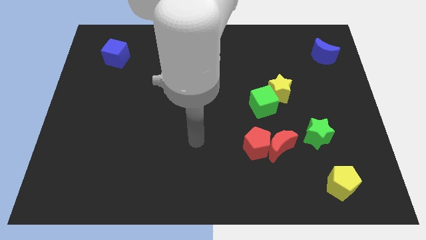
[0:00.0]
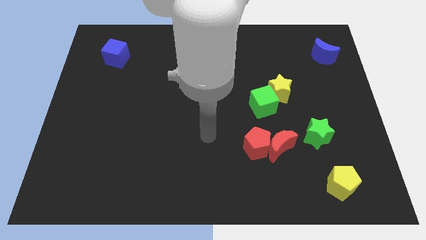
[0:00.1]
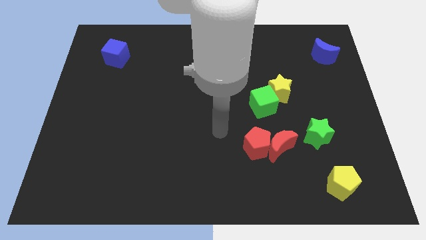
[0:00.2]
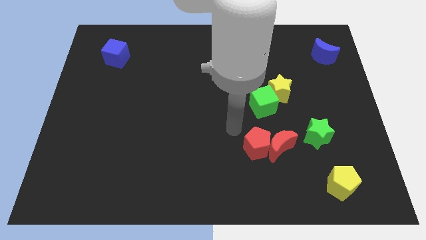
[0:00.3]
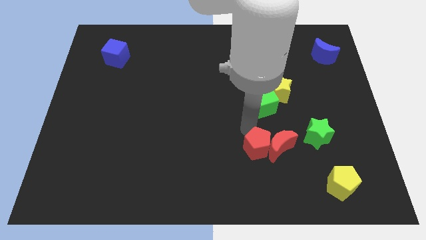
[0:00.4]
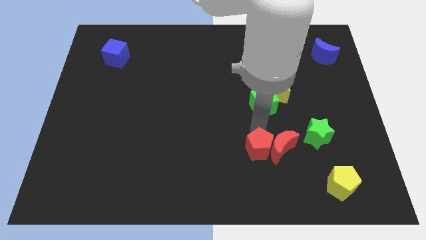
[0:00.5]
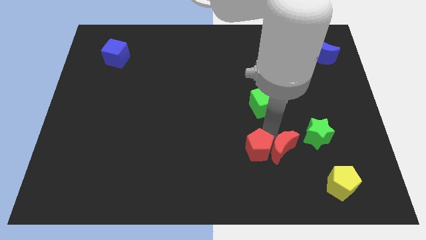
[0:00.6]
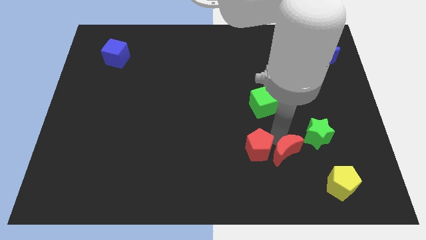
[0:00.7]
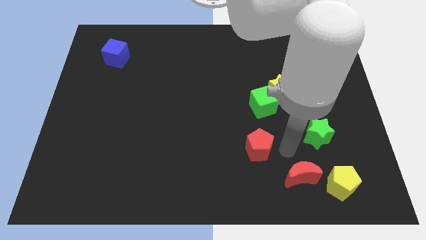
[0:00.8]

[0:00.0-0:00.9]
separate the red pentagon from the red moon

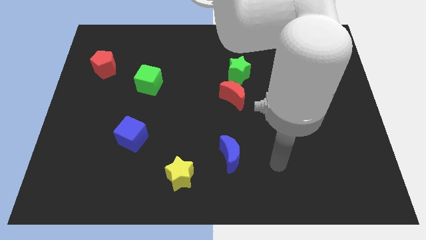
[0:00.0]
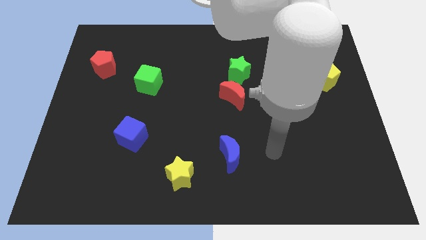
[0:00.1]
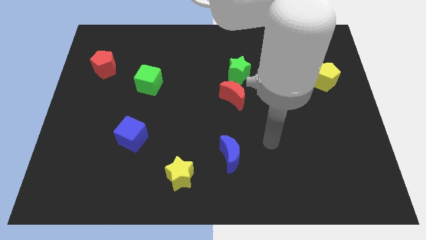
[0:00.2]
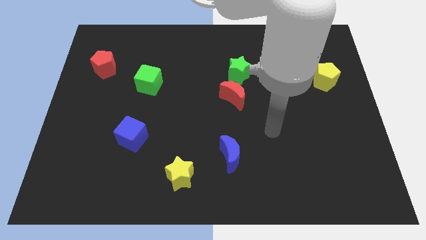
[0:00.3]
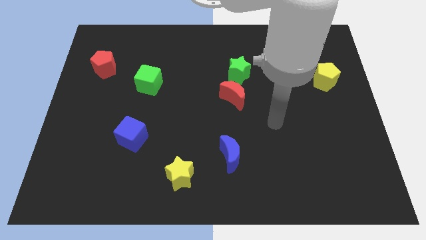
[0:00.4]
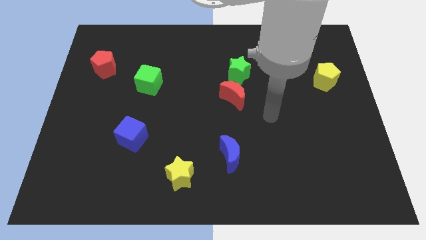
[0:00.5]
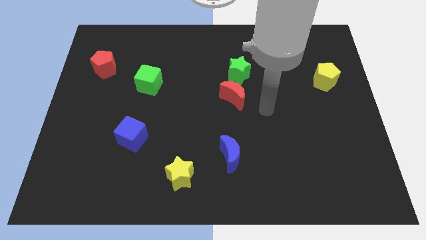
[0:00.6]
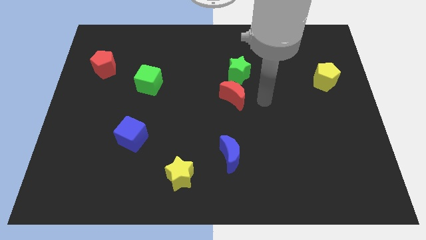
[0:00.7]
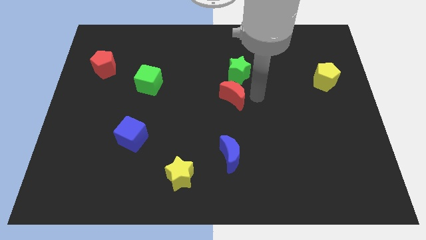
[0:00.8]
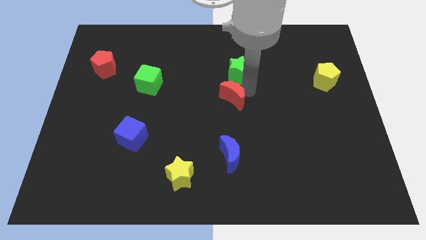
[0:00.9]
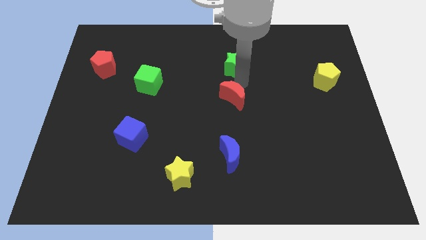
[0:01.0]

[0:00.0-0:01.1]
move the red moon away from the green star

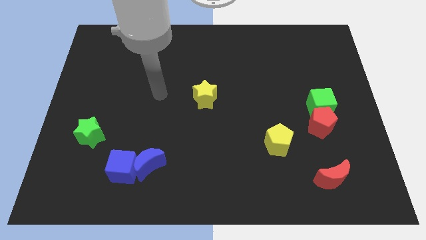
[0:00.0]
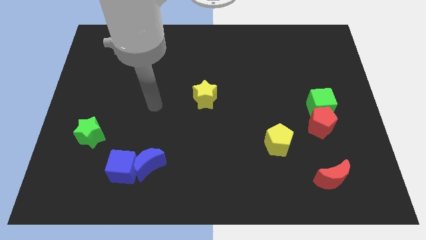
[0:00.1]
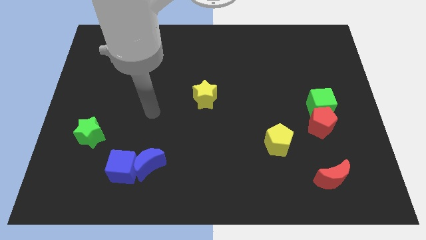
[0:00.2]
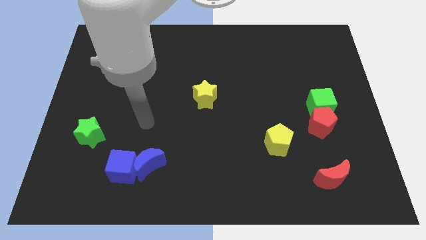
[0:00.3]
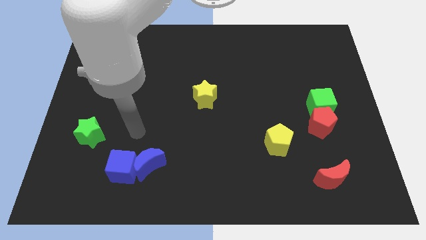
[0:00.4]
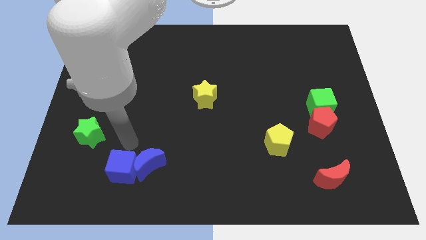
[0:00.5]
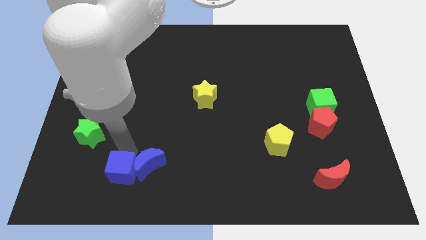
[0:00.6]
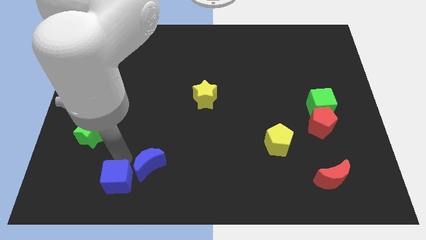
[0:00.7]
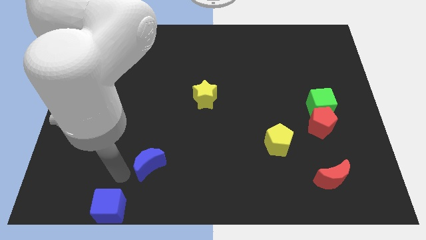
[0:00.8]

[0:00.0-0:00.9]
pull the blue moon apart from the blue cube

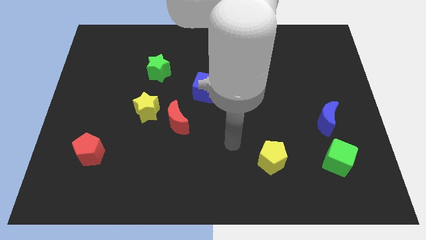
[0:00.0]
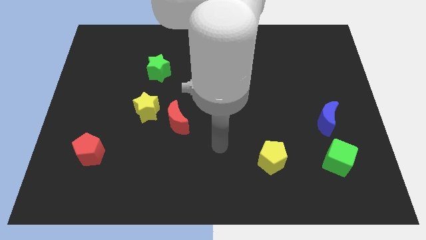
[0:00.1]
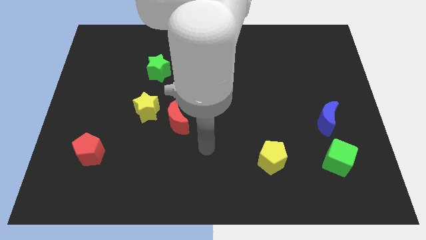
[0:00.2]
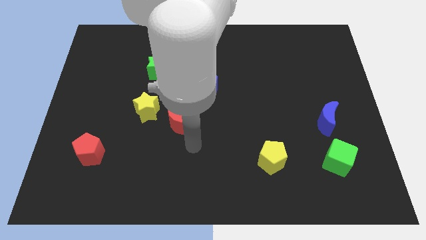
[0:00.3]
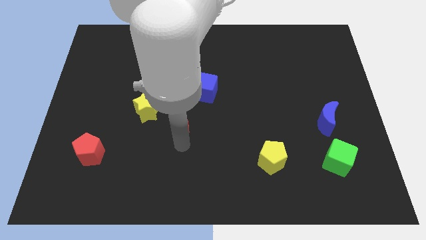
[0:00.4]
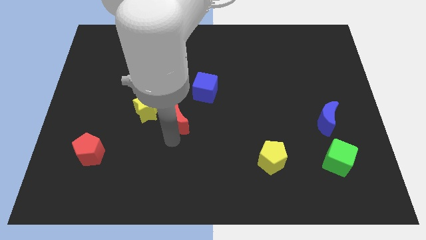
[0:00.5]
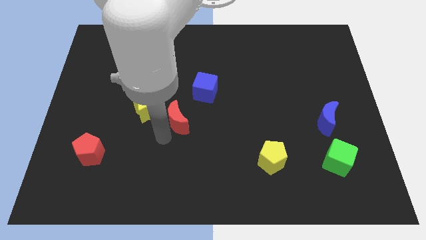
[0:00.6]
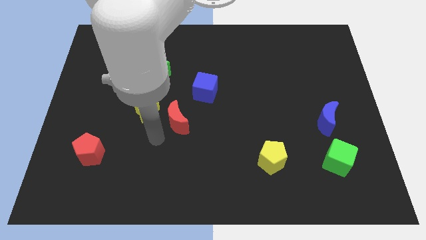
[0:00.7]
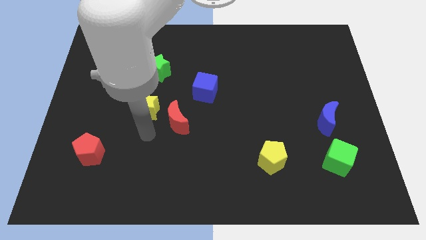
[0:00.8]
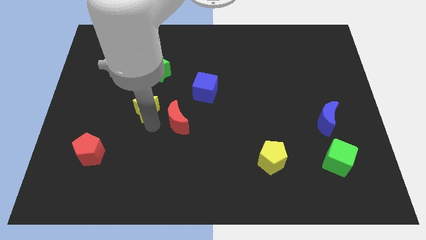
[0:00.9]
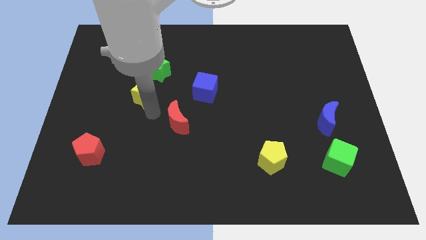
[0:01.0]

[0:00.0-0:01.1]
move the red moon away from the yellow star

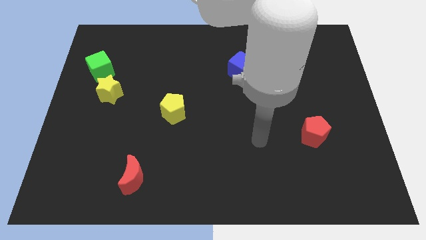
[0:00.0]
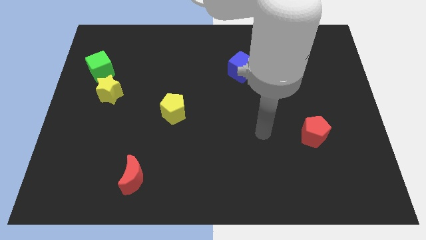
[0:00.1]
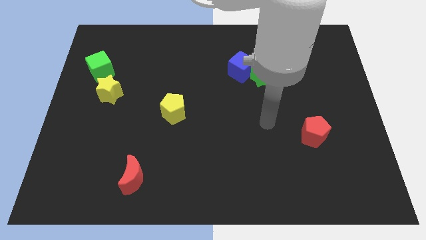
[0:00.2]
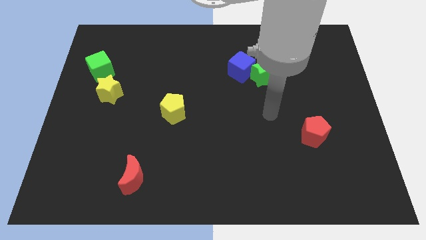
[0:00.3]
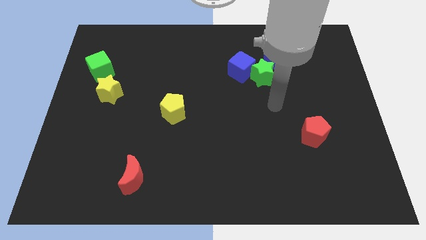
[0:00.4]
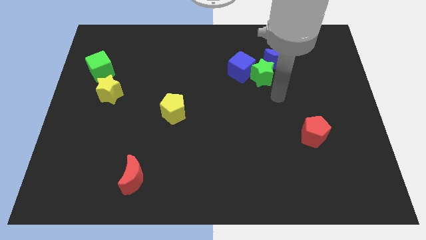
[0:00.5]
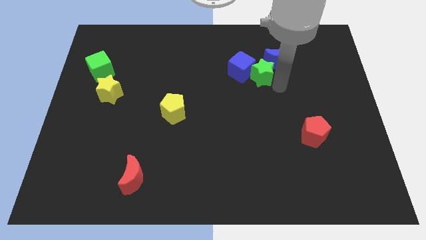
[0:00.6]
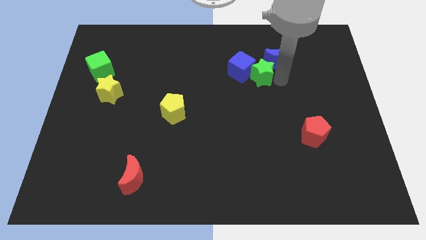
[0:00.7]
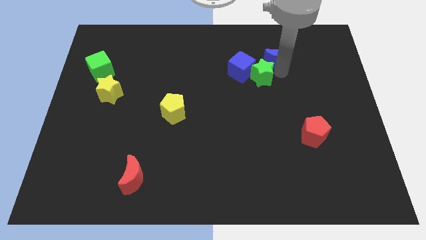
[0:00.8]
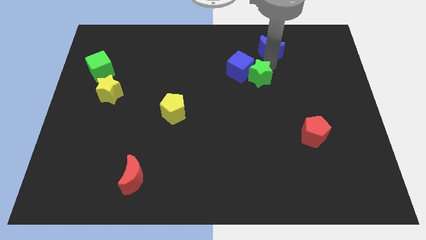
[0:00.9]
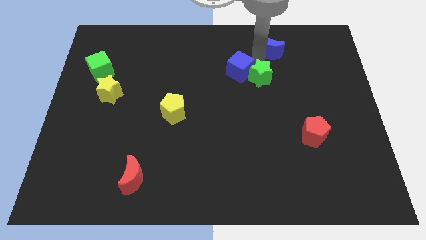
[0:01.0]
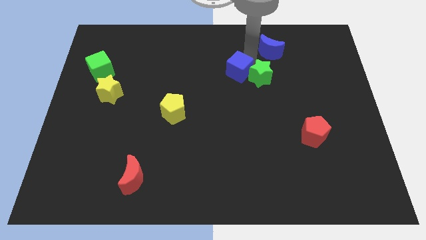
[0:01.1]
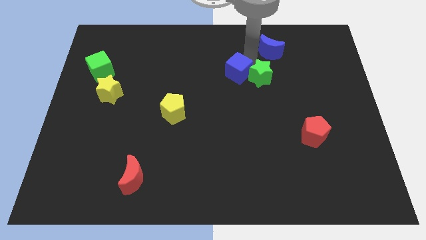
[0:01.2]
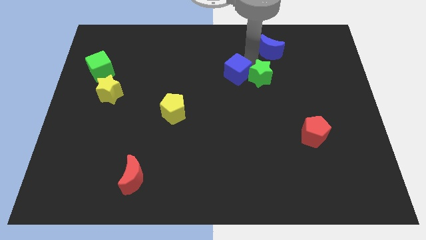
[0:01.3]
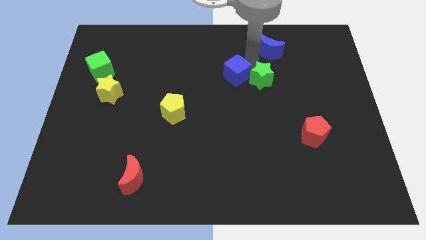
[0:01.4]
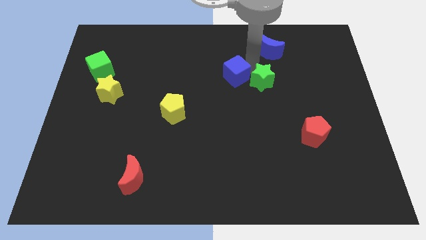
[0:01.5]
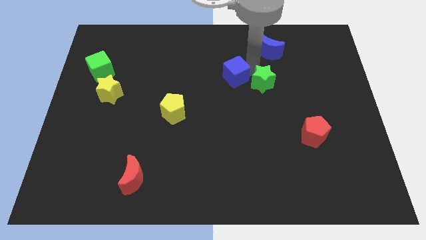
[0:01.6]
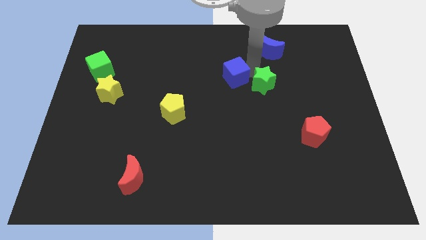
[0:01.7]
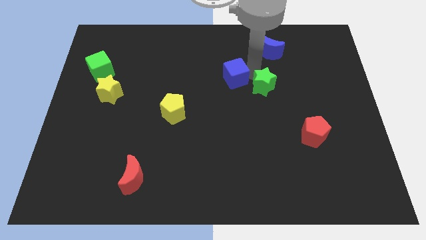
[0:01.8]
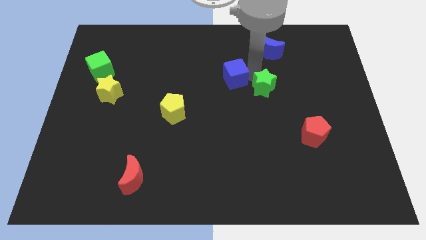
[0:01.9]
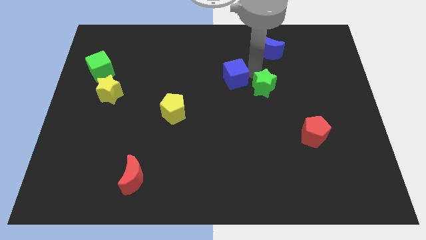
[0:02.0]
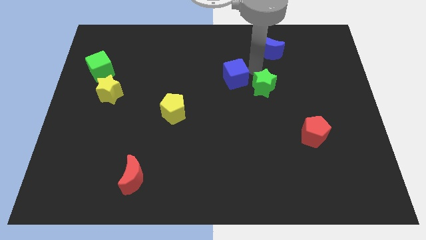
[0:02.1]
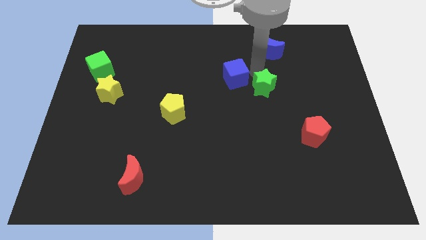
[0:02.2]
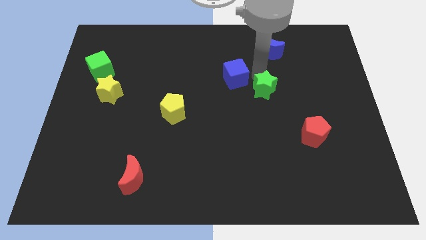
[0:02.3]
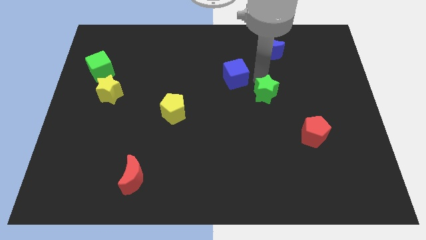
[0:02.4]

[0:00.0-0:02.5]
move the green star away from the blue cube and blue moon

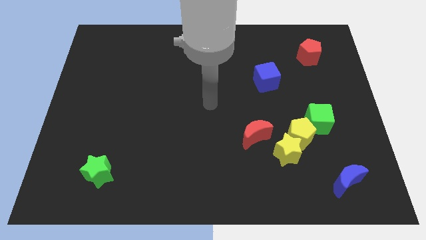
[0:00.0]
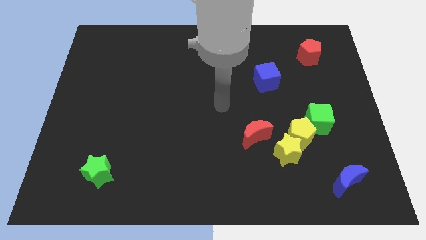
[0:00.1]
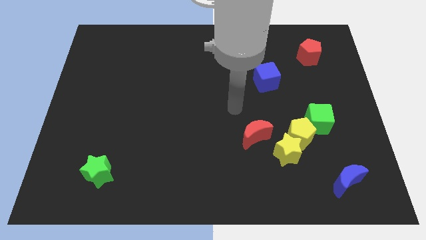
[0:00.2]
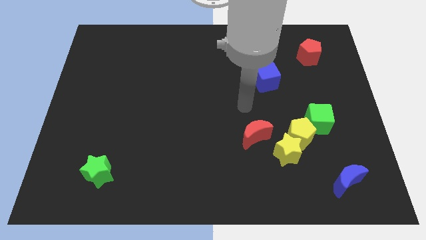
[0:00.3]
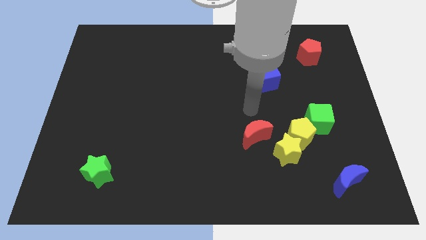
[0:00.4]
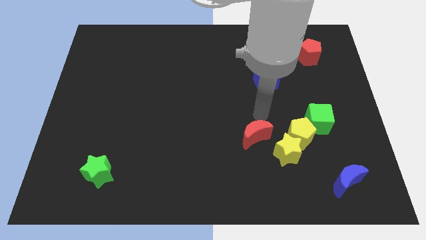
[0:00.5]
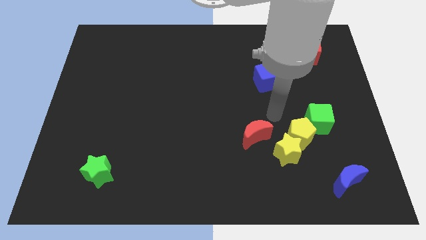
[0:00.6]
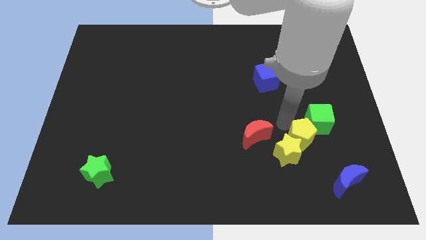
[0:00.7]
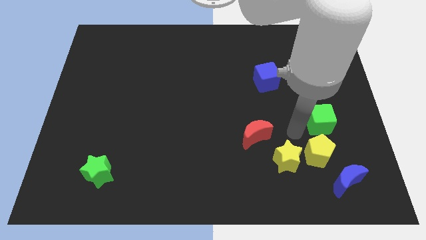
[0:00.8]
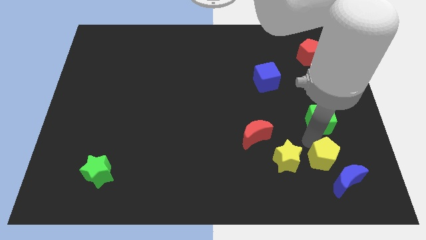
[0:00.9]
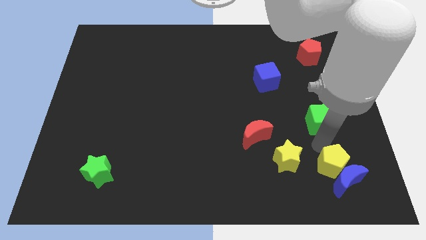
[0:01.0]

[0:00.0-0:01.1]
separate the green cube from the yellow pentagon

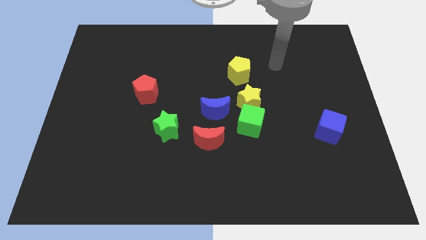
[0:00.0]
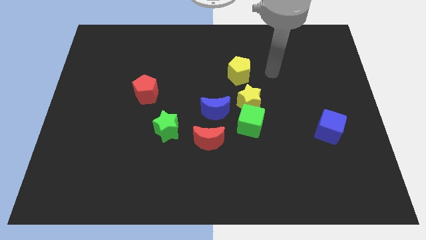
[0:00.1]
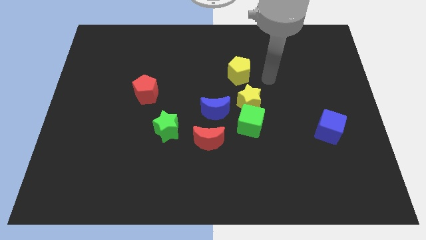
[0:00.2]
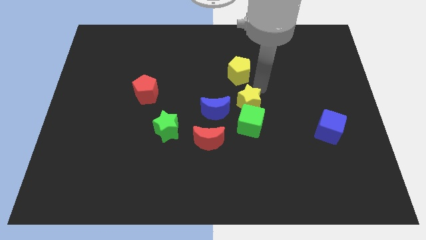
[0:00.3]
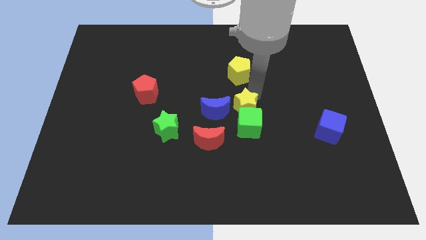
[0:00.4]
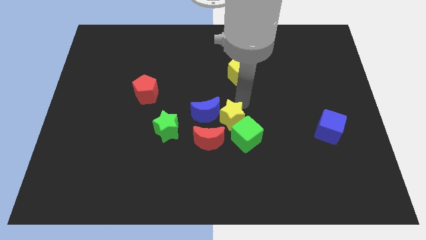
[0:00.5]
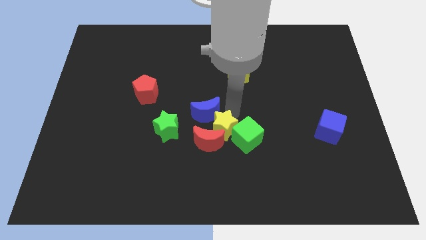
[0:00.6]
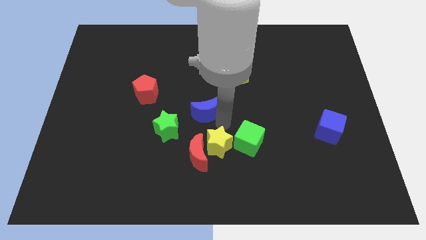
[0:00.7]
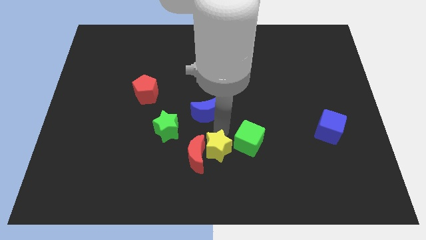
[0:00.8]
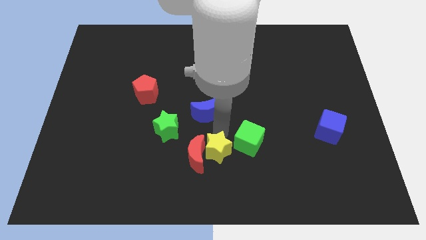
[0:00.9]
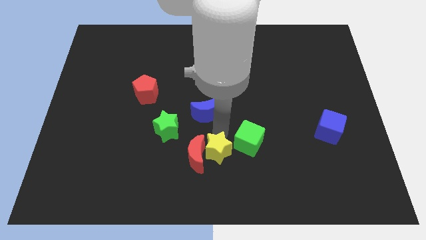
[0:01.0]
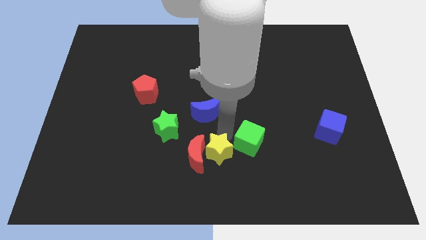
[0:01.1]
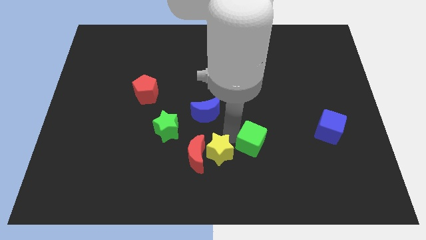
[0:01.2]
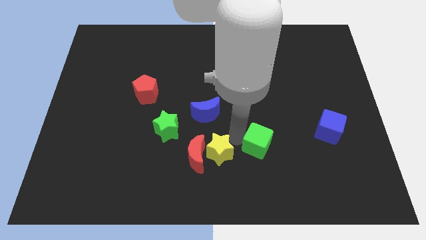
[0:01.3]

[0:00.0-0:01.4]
move the green cube away from the yellow star and blue moon

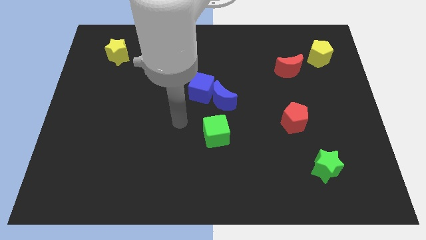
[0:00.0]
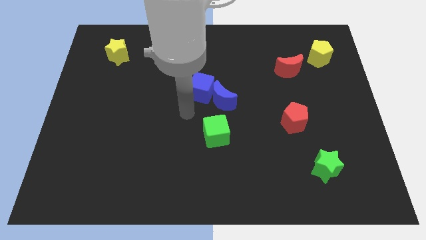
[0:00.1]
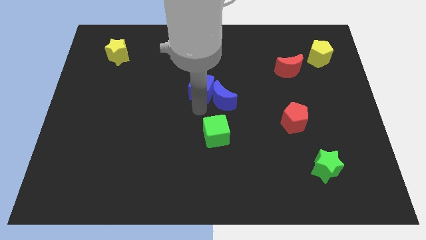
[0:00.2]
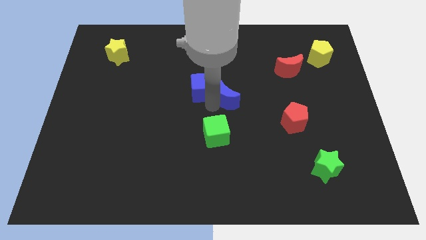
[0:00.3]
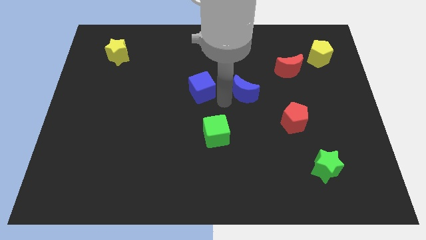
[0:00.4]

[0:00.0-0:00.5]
separate the blue cube from the blue moon
